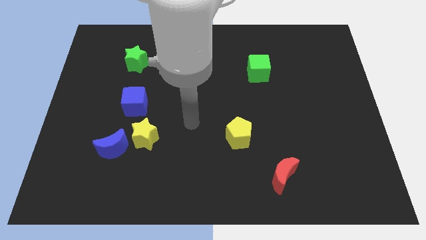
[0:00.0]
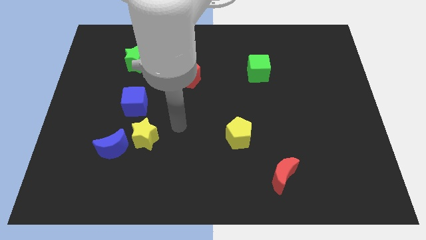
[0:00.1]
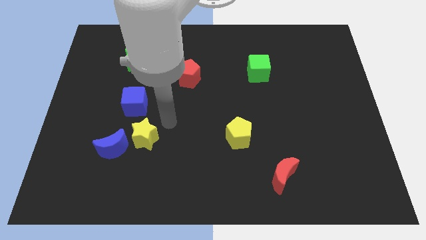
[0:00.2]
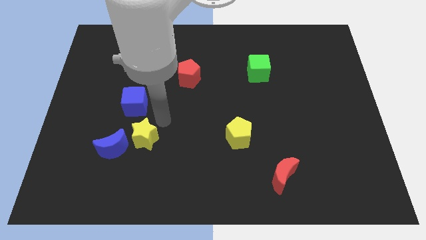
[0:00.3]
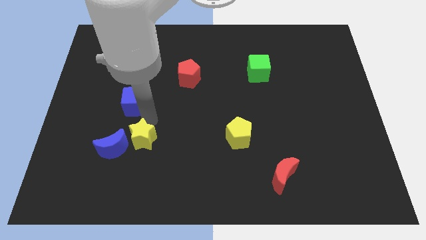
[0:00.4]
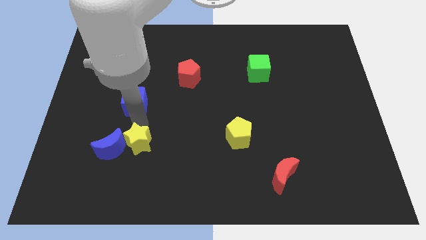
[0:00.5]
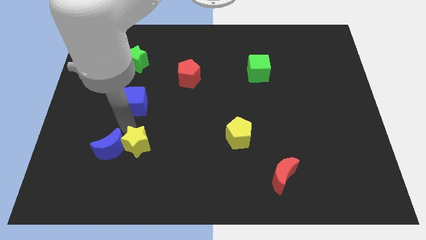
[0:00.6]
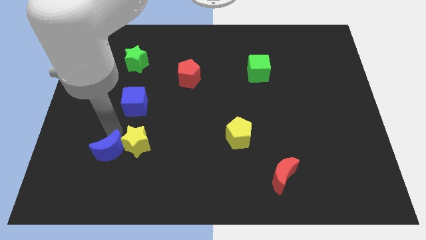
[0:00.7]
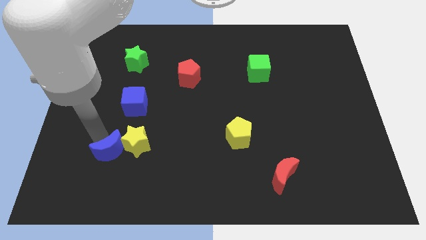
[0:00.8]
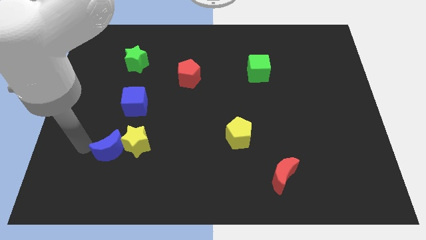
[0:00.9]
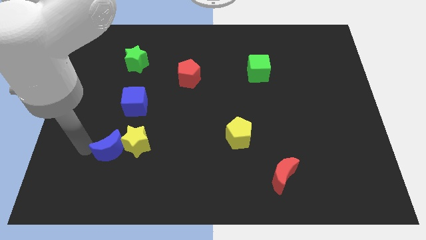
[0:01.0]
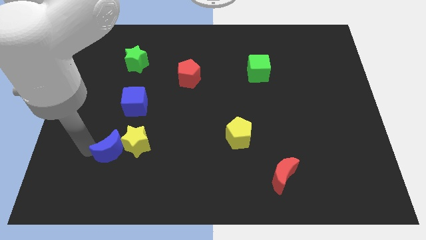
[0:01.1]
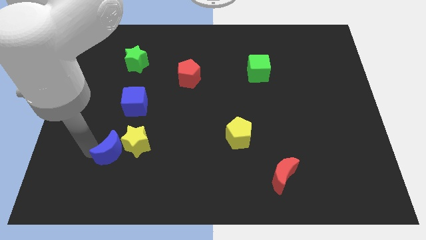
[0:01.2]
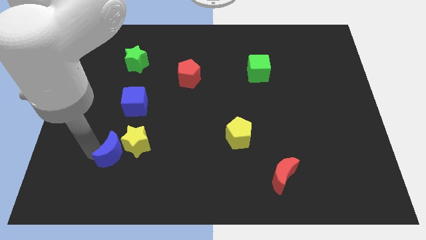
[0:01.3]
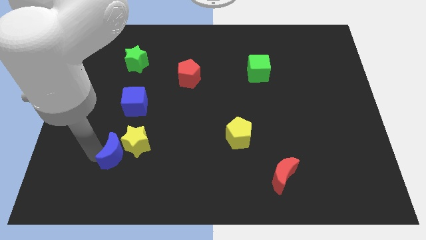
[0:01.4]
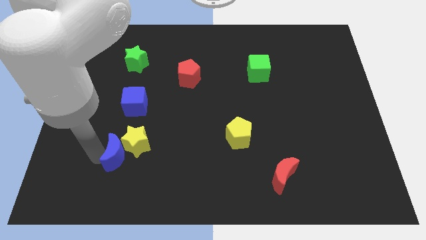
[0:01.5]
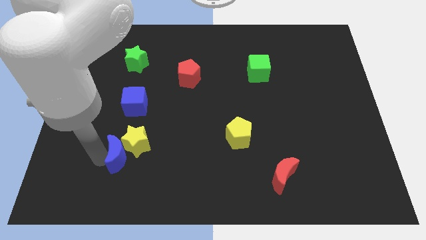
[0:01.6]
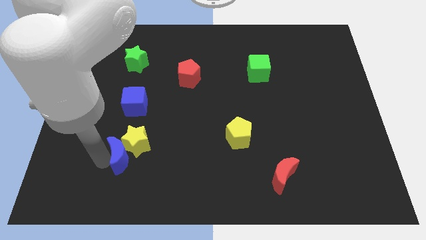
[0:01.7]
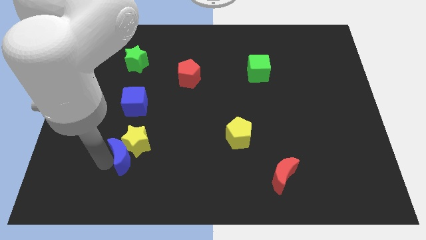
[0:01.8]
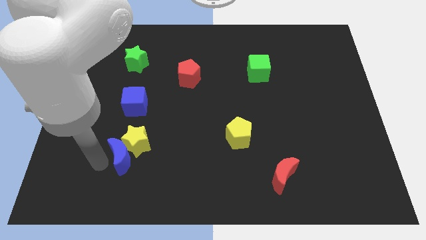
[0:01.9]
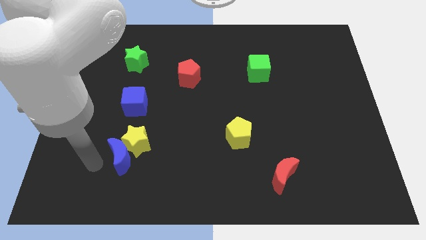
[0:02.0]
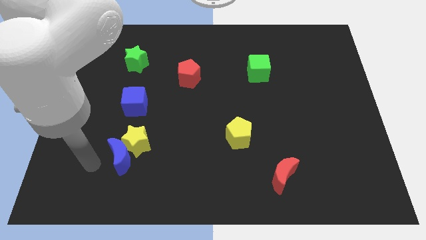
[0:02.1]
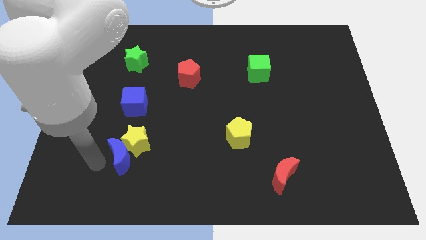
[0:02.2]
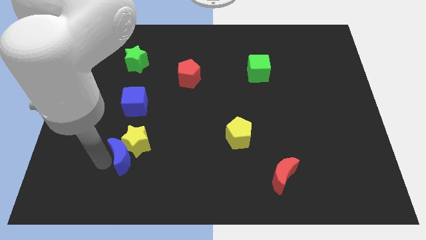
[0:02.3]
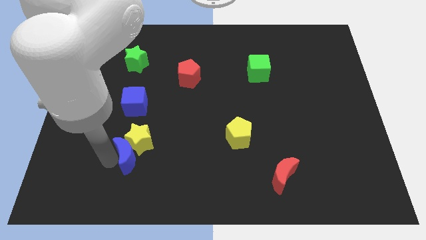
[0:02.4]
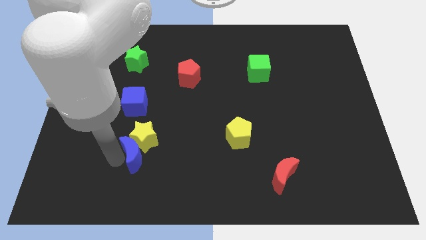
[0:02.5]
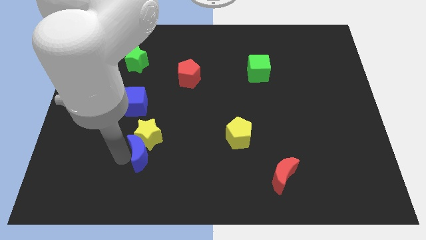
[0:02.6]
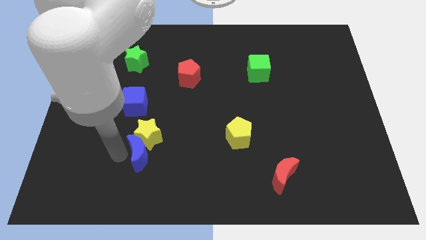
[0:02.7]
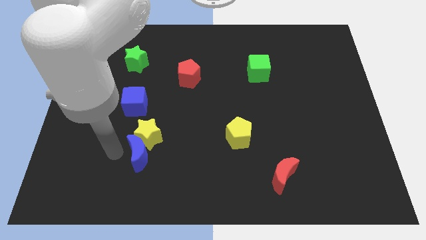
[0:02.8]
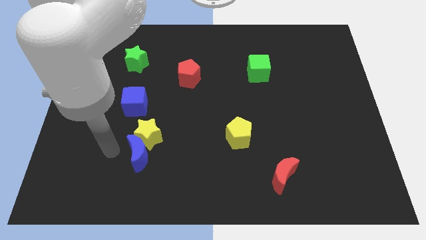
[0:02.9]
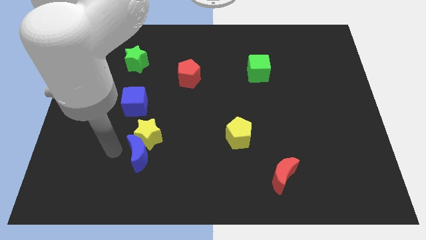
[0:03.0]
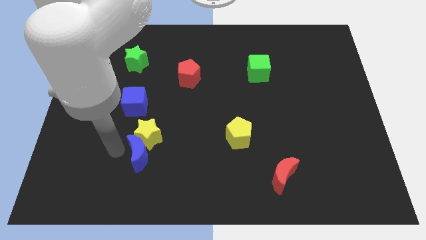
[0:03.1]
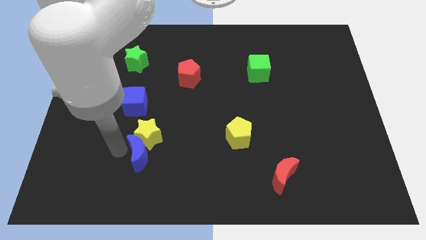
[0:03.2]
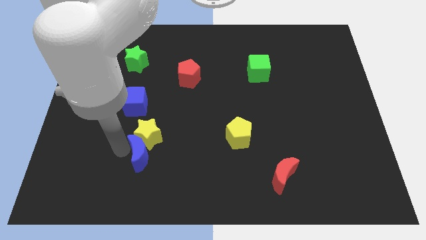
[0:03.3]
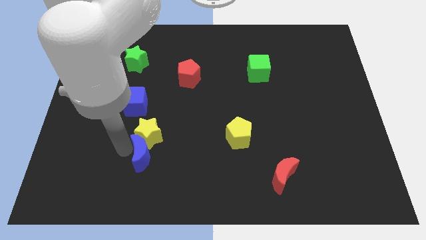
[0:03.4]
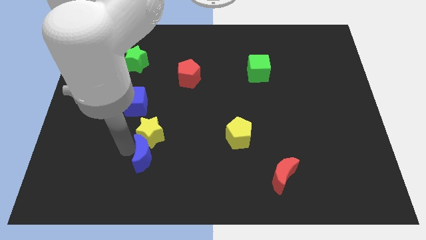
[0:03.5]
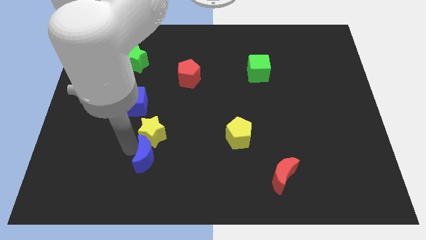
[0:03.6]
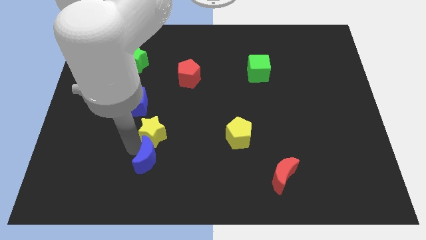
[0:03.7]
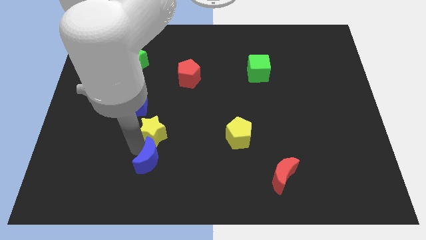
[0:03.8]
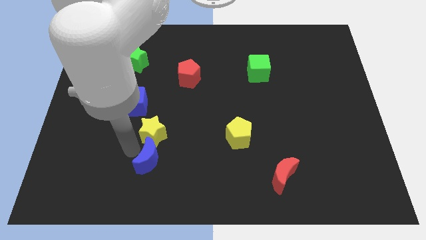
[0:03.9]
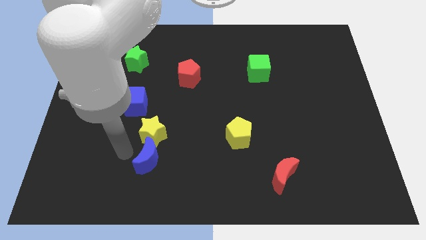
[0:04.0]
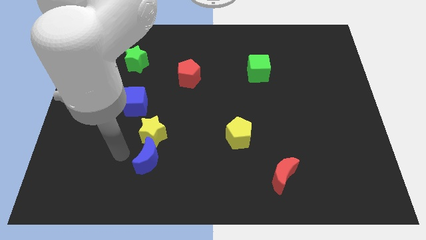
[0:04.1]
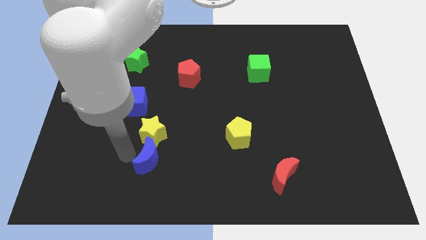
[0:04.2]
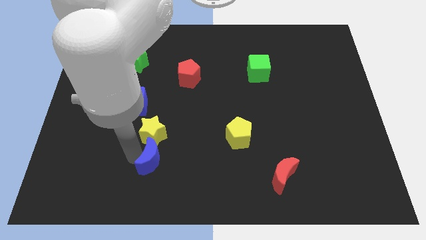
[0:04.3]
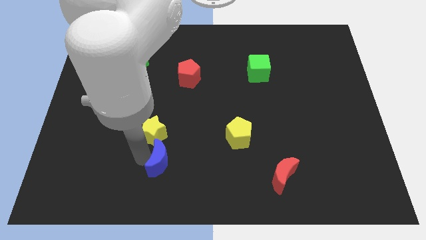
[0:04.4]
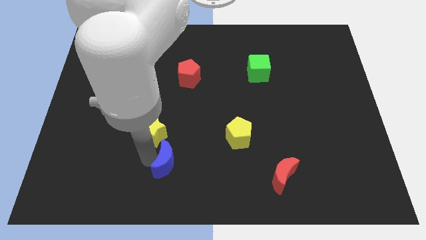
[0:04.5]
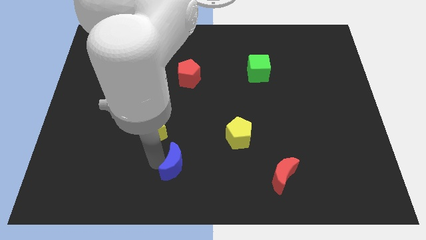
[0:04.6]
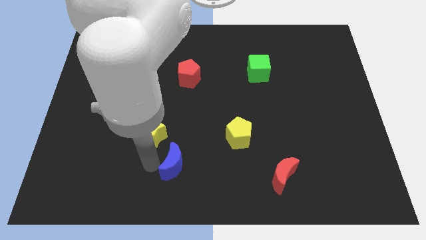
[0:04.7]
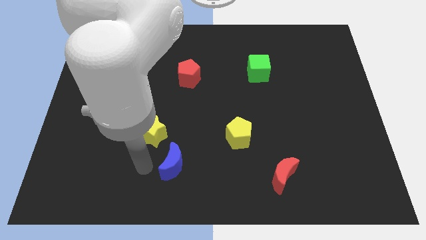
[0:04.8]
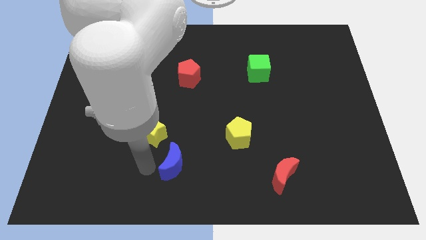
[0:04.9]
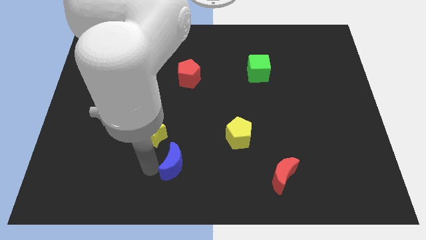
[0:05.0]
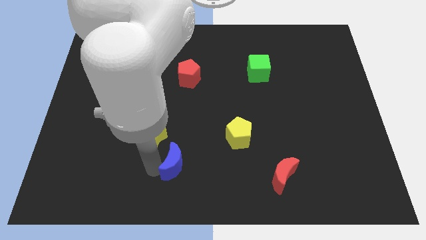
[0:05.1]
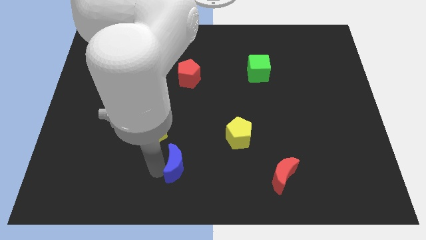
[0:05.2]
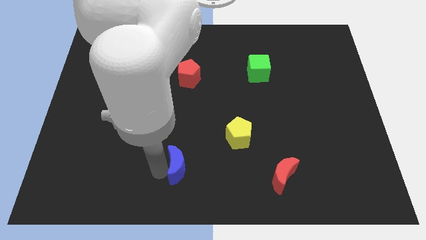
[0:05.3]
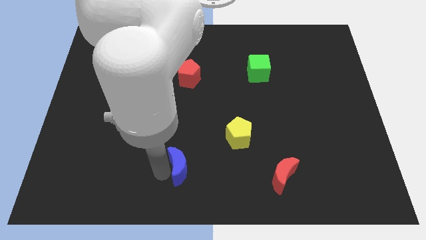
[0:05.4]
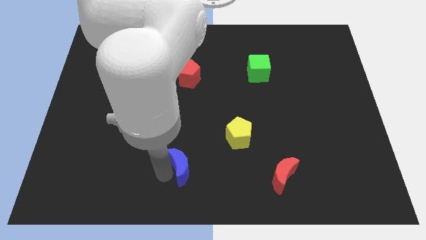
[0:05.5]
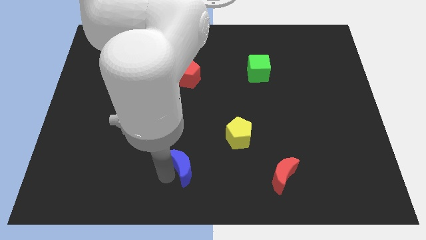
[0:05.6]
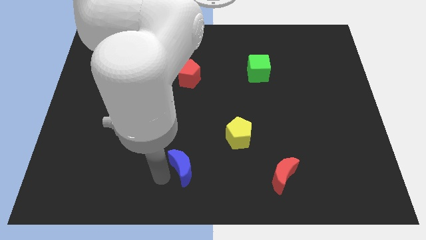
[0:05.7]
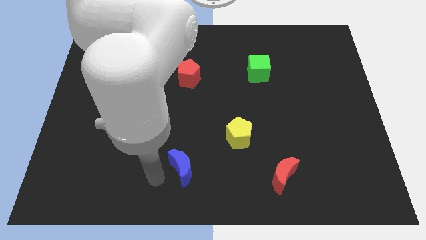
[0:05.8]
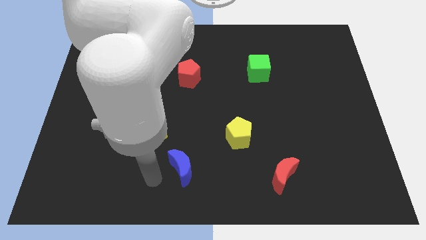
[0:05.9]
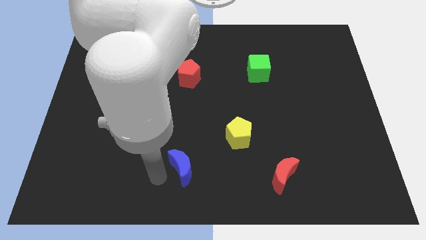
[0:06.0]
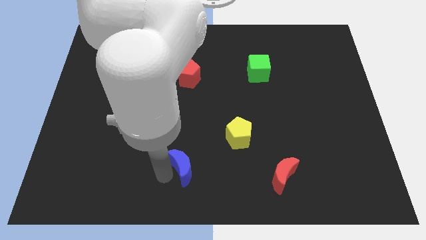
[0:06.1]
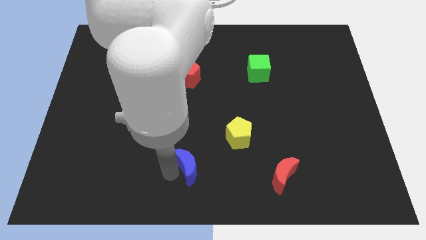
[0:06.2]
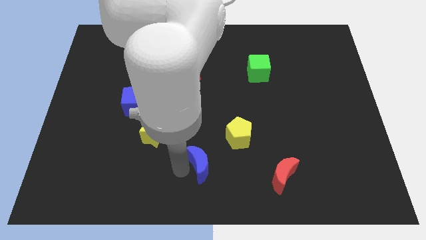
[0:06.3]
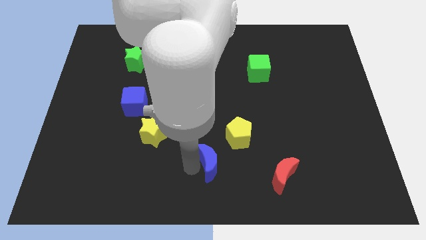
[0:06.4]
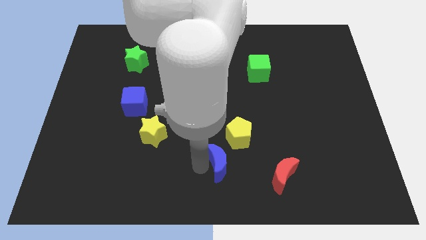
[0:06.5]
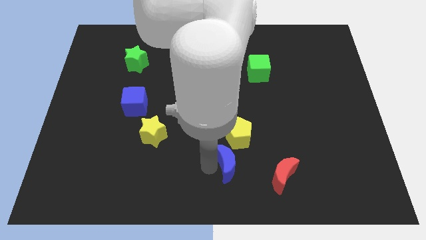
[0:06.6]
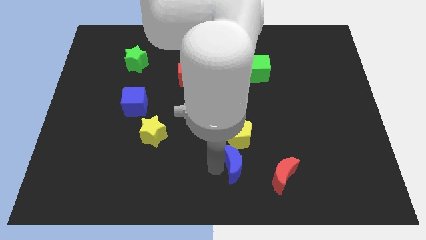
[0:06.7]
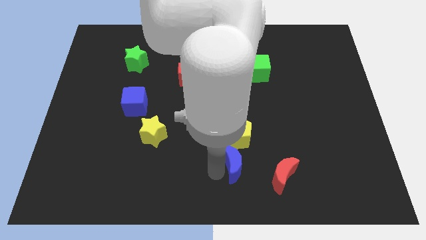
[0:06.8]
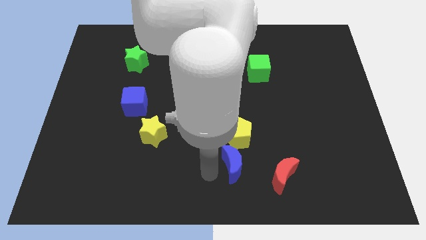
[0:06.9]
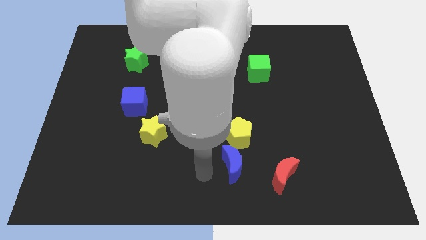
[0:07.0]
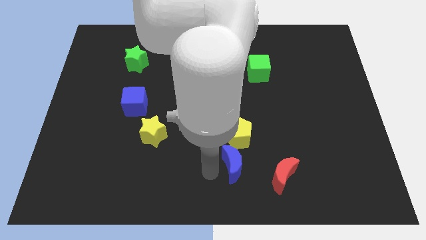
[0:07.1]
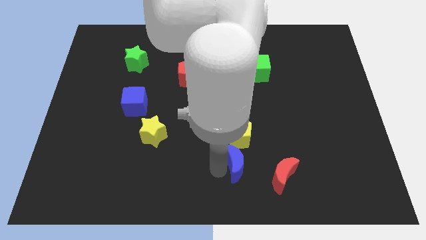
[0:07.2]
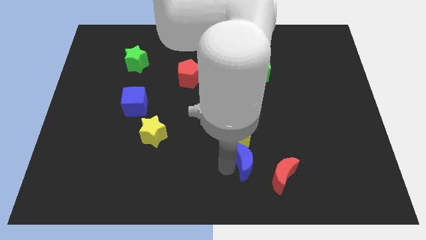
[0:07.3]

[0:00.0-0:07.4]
slide the blue moon to the bottom right side of the yellow pentagon
